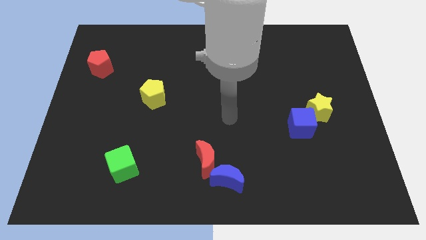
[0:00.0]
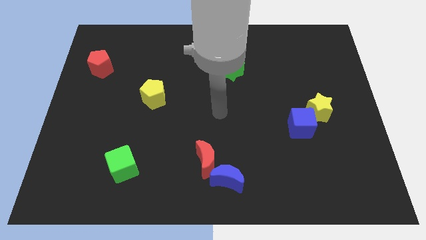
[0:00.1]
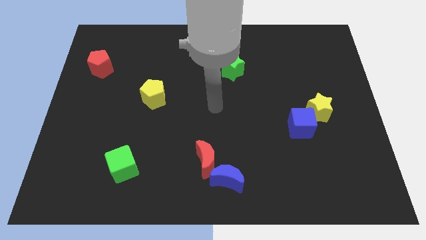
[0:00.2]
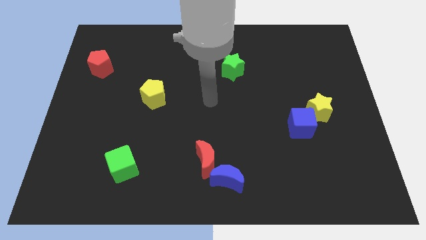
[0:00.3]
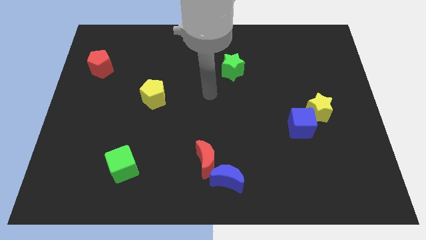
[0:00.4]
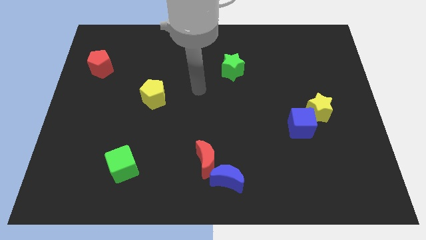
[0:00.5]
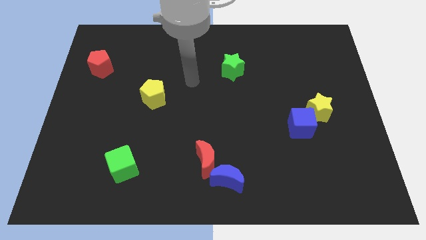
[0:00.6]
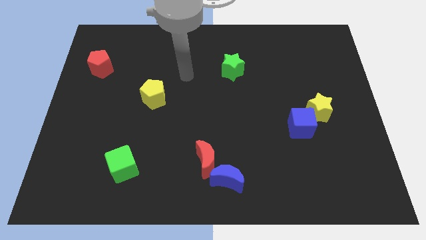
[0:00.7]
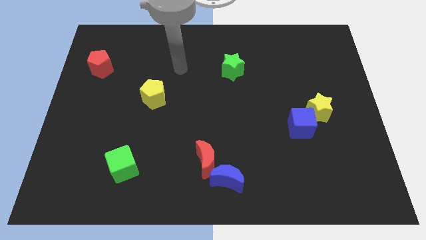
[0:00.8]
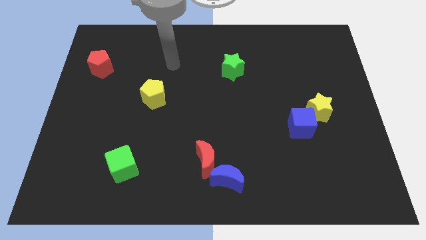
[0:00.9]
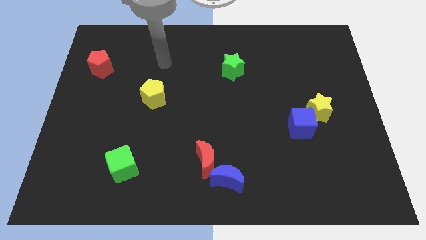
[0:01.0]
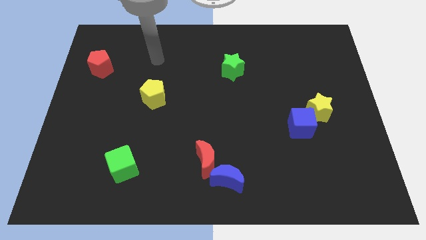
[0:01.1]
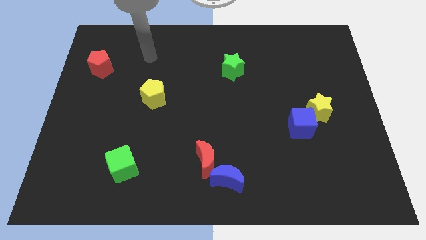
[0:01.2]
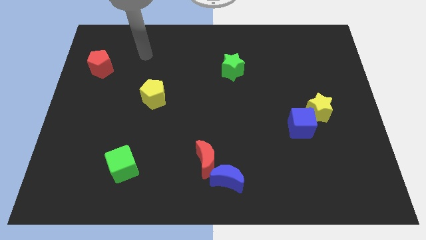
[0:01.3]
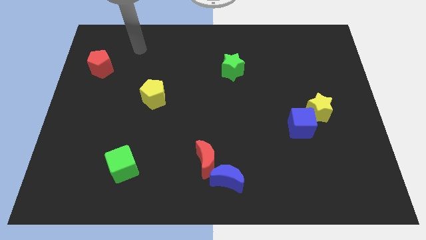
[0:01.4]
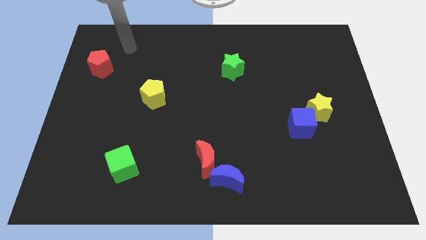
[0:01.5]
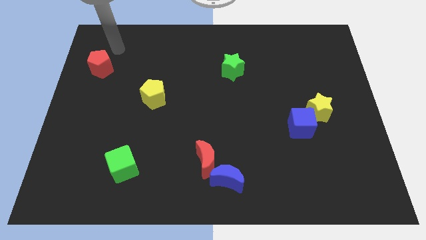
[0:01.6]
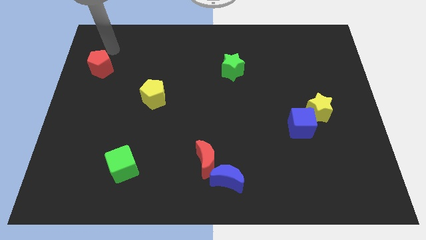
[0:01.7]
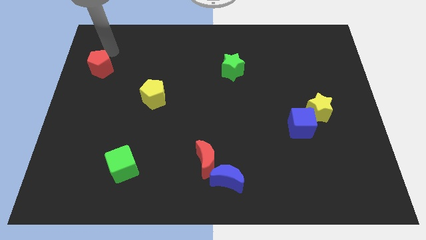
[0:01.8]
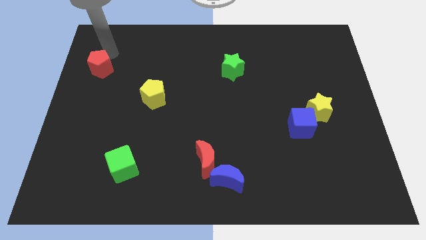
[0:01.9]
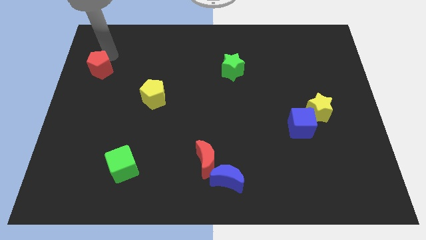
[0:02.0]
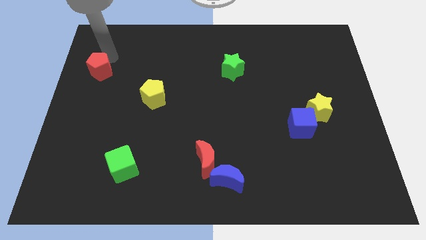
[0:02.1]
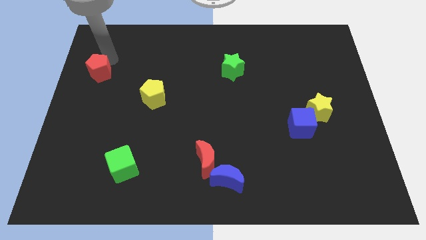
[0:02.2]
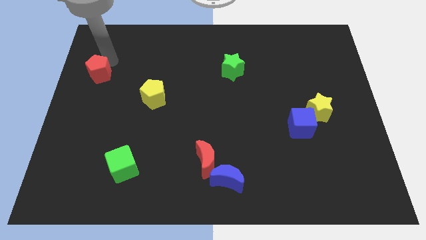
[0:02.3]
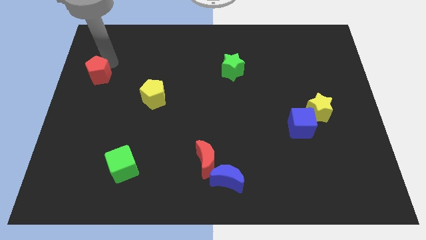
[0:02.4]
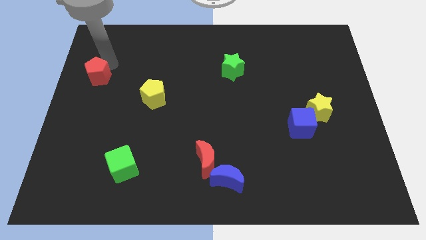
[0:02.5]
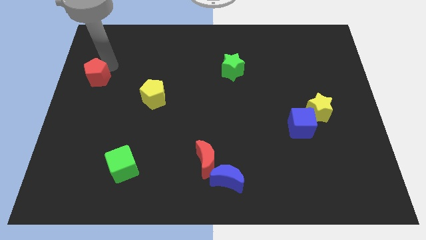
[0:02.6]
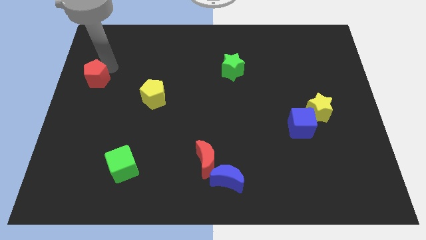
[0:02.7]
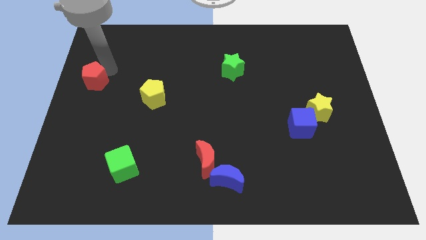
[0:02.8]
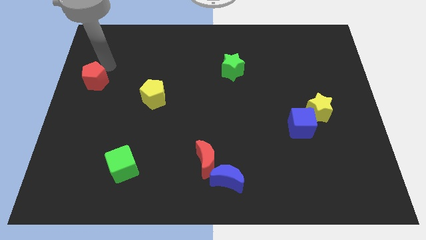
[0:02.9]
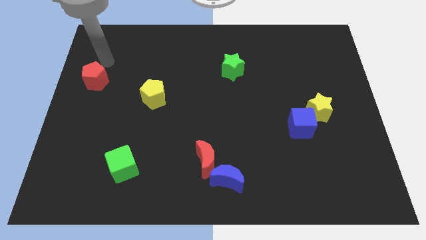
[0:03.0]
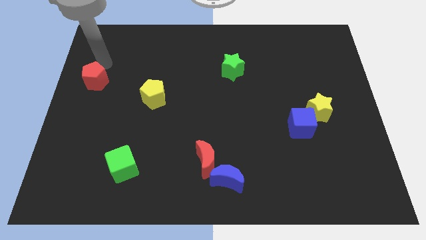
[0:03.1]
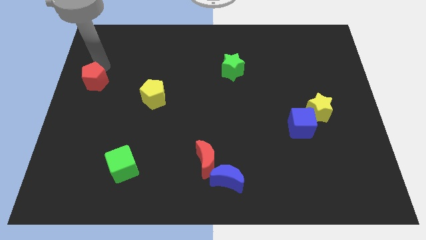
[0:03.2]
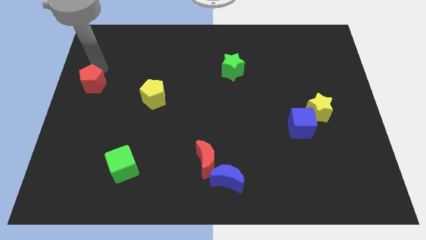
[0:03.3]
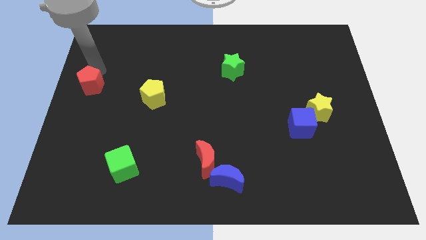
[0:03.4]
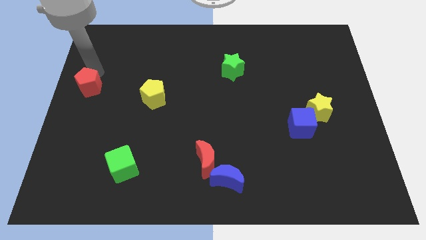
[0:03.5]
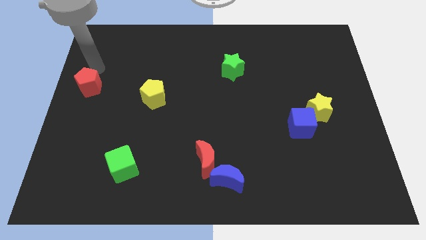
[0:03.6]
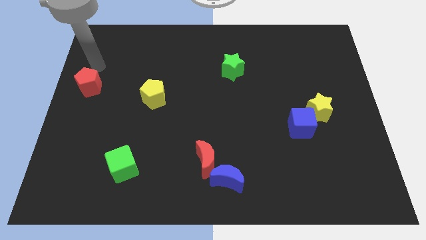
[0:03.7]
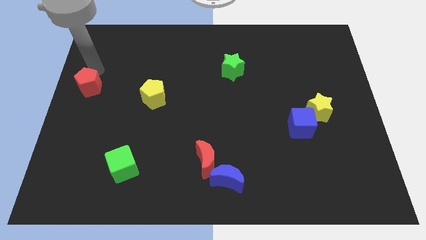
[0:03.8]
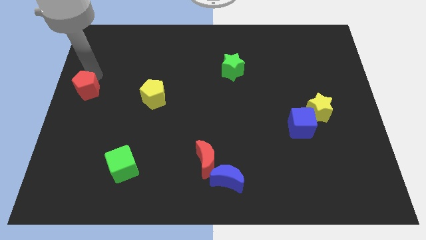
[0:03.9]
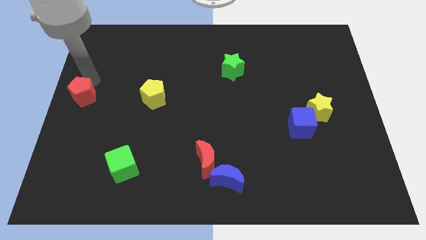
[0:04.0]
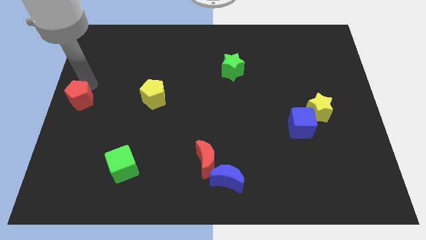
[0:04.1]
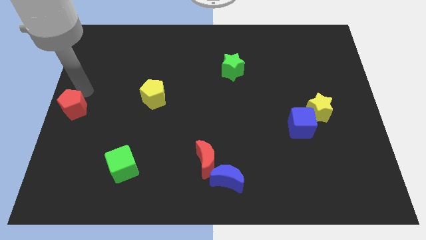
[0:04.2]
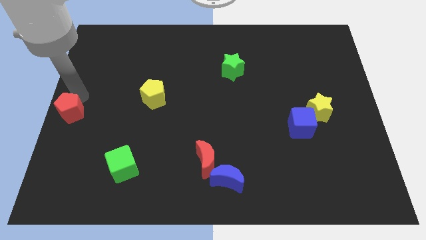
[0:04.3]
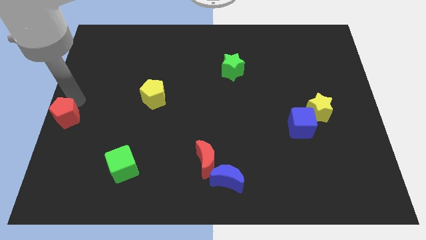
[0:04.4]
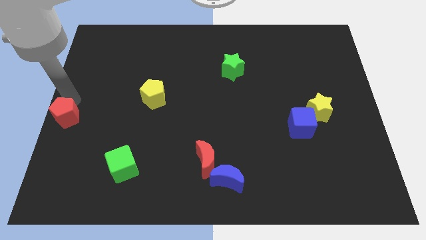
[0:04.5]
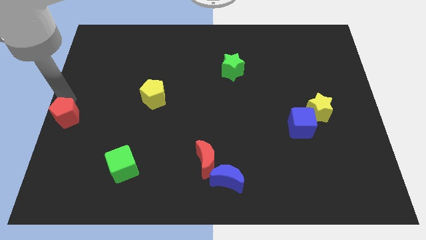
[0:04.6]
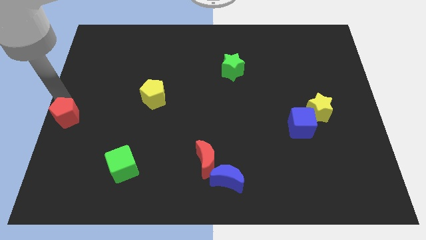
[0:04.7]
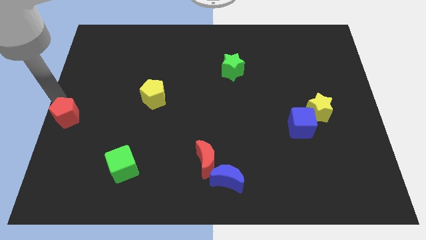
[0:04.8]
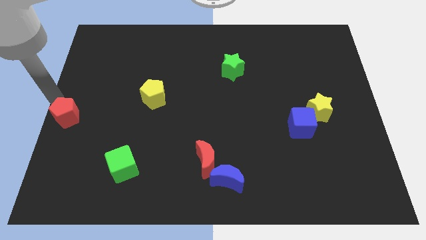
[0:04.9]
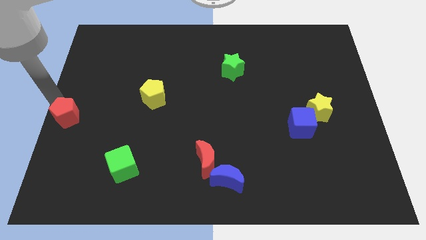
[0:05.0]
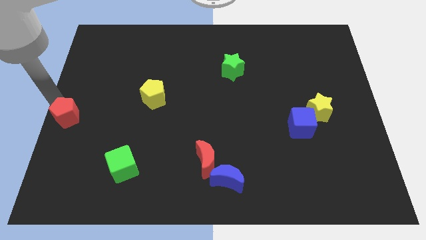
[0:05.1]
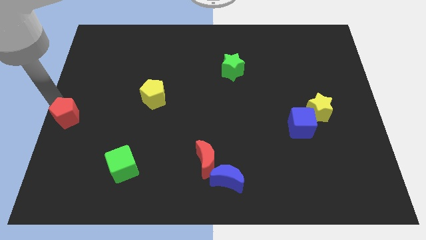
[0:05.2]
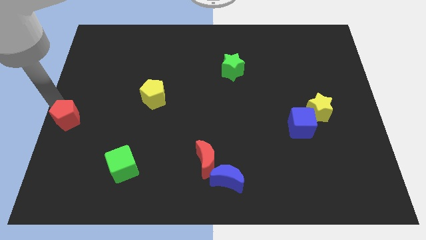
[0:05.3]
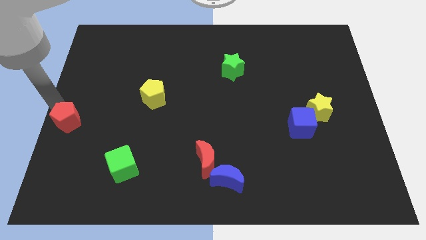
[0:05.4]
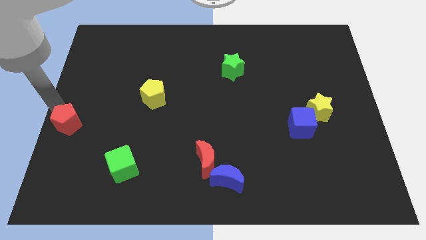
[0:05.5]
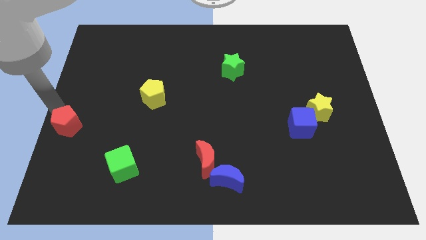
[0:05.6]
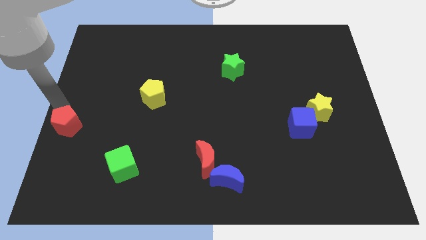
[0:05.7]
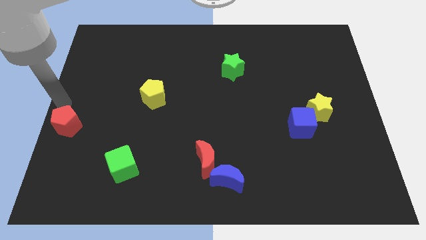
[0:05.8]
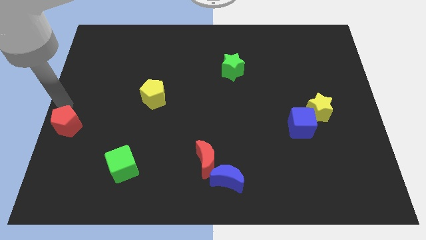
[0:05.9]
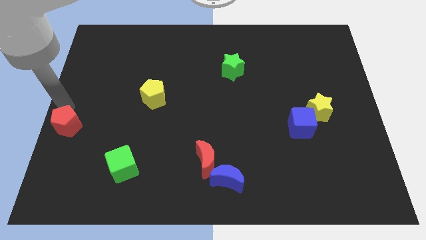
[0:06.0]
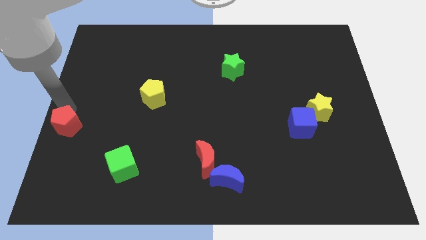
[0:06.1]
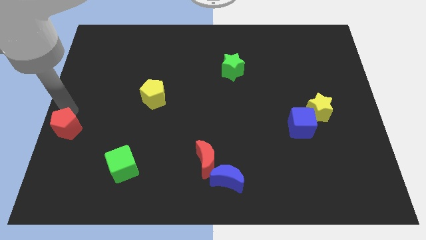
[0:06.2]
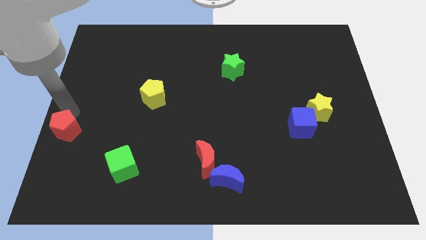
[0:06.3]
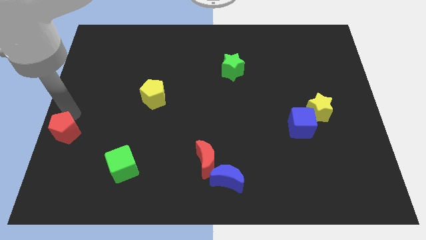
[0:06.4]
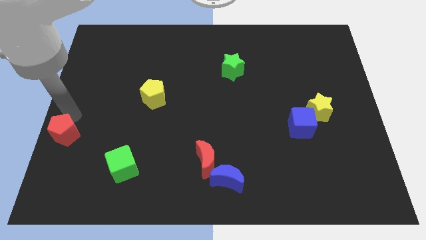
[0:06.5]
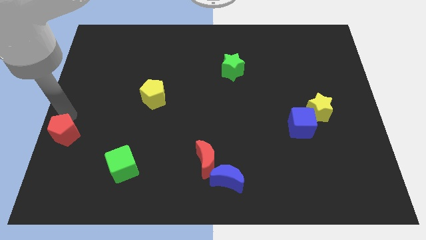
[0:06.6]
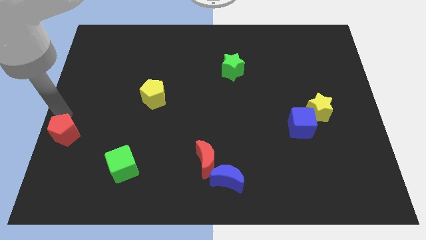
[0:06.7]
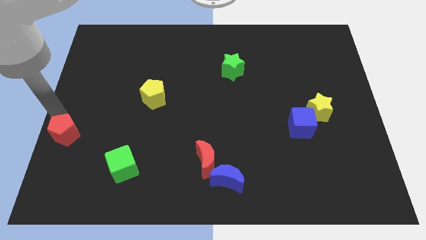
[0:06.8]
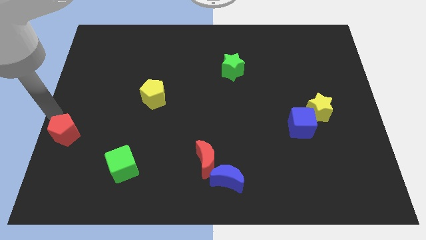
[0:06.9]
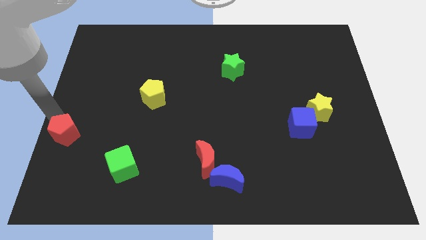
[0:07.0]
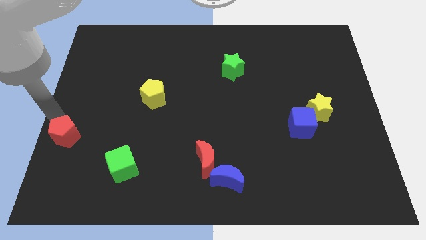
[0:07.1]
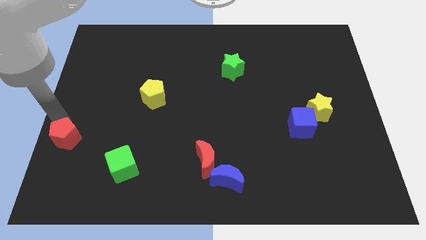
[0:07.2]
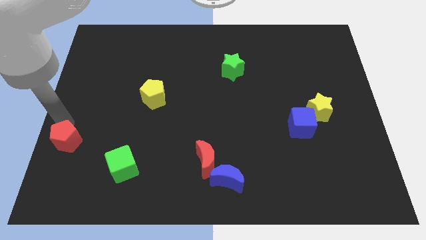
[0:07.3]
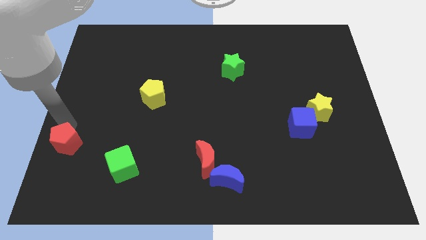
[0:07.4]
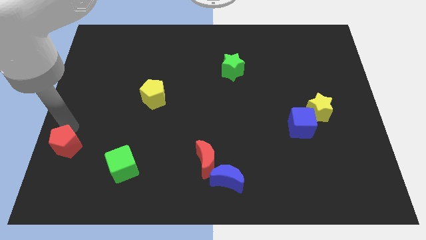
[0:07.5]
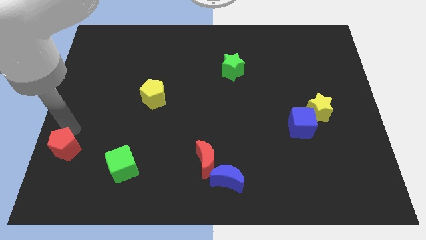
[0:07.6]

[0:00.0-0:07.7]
slide the red pentagon to the left side of the green cube
